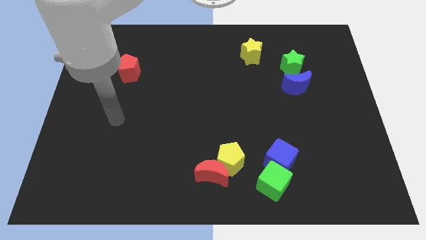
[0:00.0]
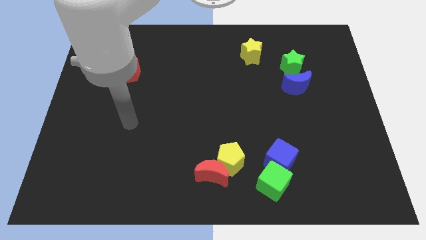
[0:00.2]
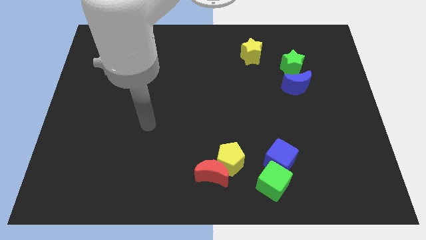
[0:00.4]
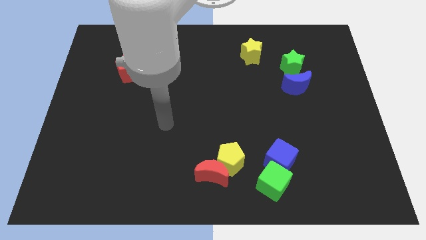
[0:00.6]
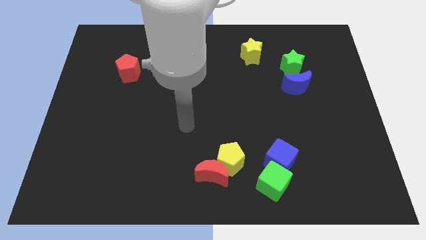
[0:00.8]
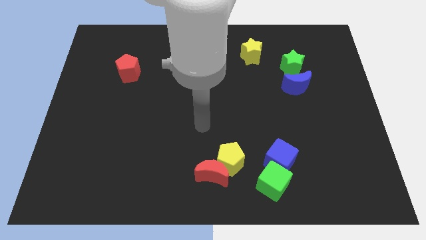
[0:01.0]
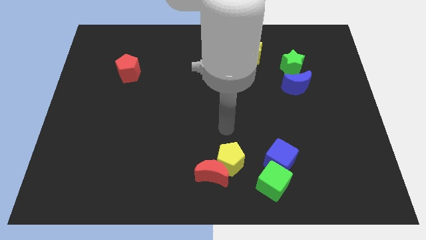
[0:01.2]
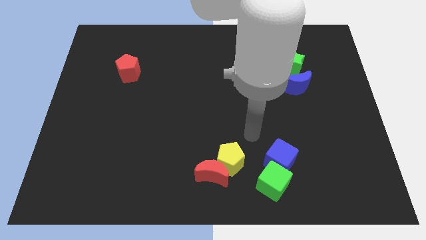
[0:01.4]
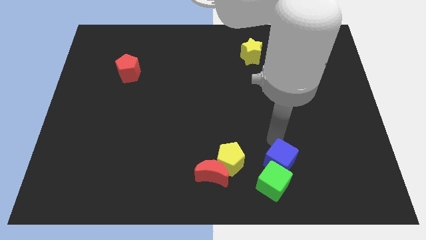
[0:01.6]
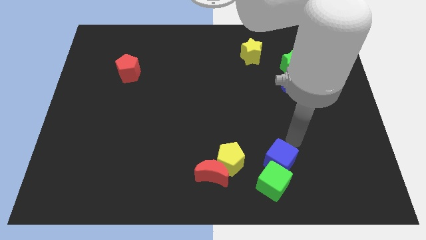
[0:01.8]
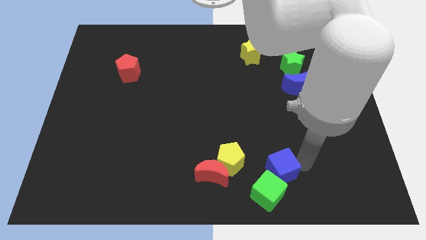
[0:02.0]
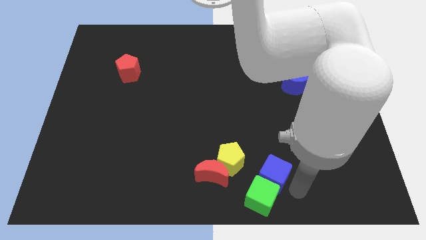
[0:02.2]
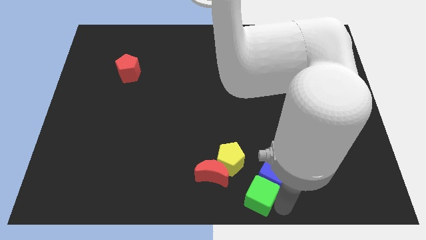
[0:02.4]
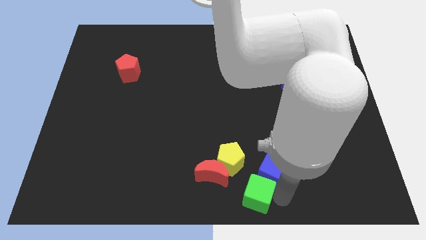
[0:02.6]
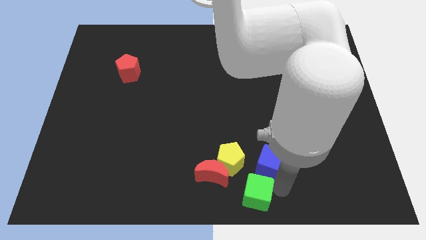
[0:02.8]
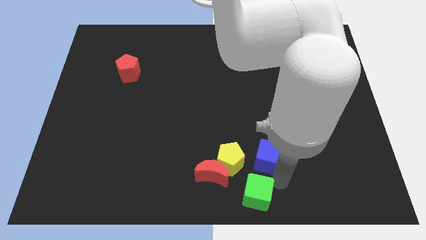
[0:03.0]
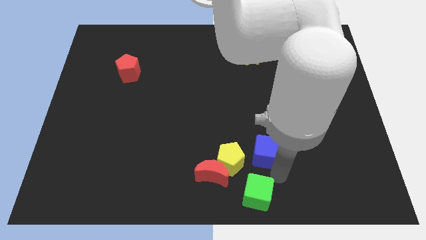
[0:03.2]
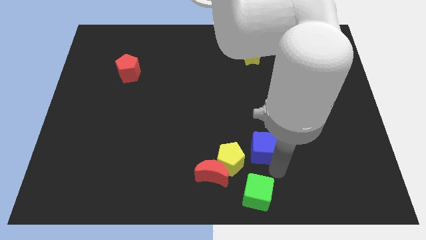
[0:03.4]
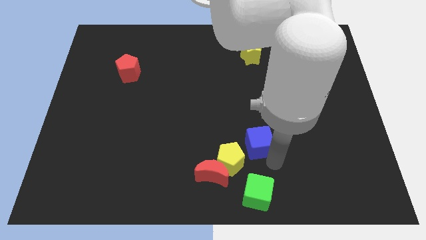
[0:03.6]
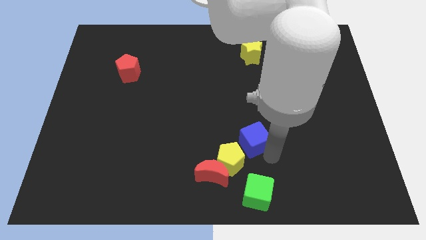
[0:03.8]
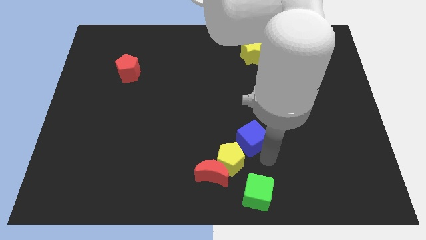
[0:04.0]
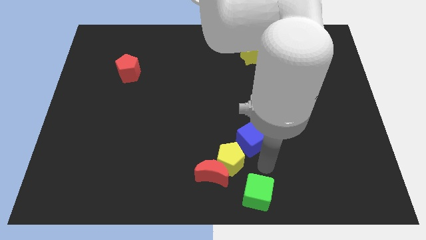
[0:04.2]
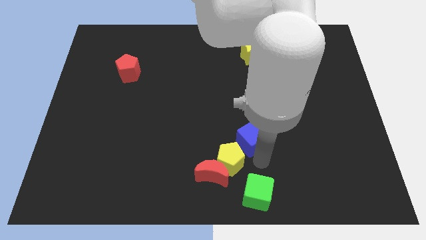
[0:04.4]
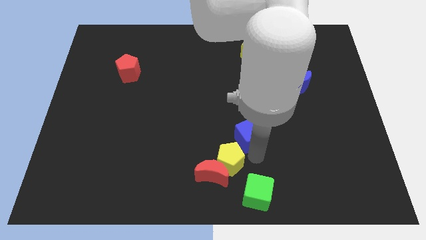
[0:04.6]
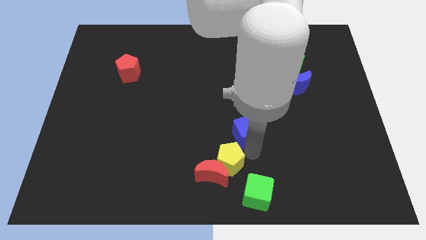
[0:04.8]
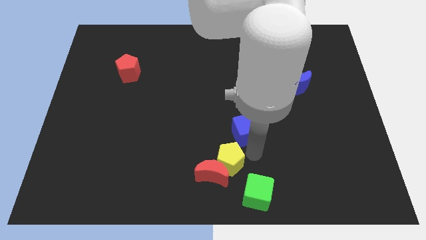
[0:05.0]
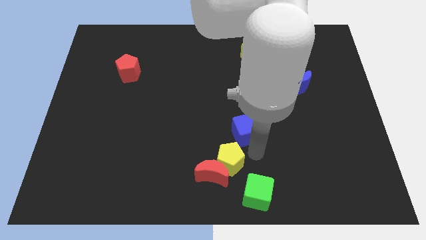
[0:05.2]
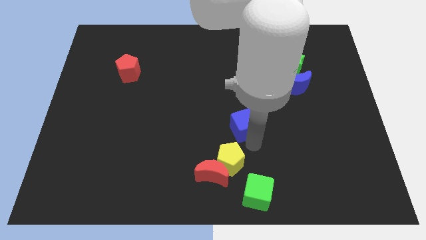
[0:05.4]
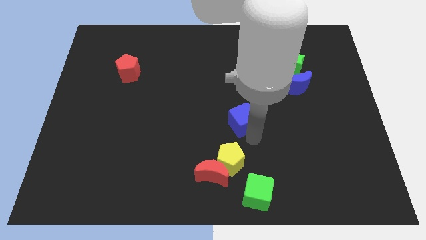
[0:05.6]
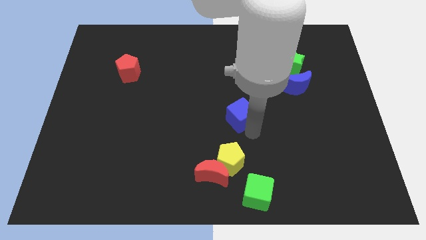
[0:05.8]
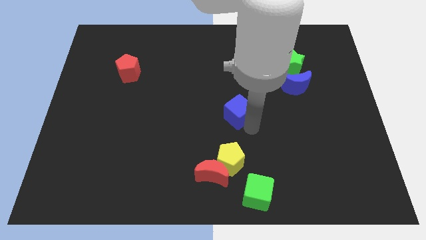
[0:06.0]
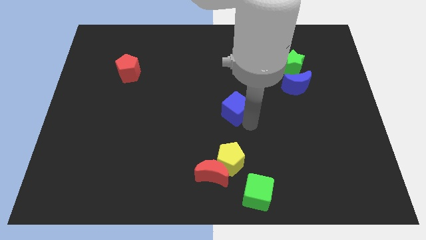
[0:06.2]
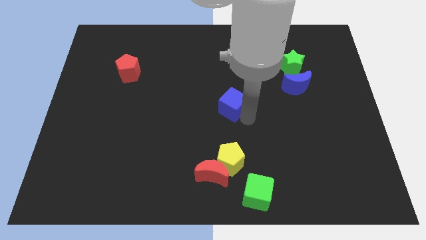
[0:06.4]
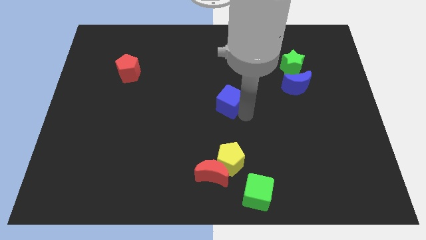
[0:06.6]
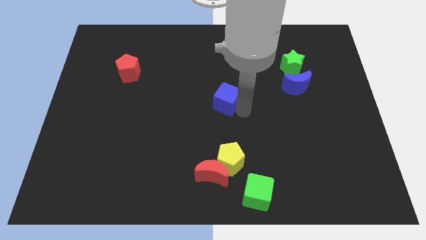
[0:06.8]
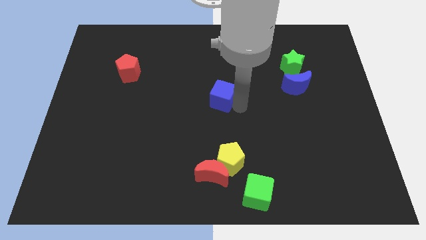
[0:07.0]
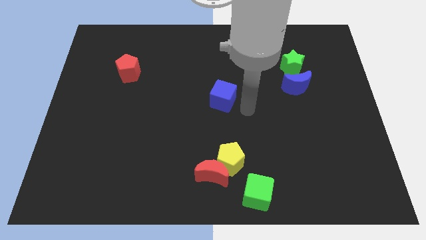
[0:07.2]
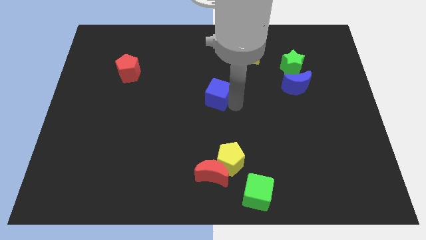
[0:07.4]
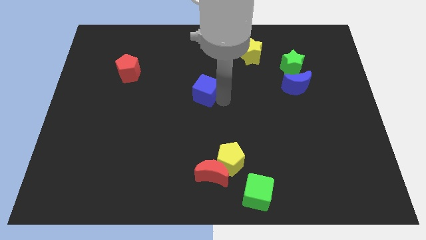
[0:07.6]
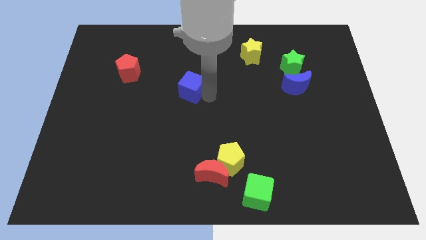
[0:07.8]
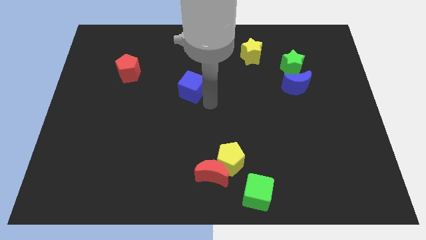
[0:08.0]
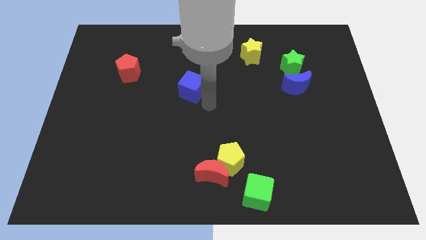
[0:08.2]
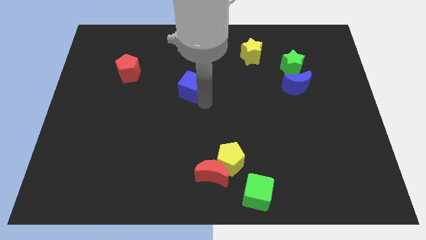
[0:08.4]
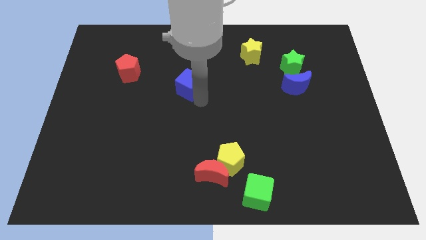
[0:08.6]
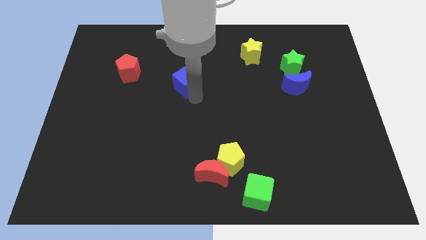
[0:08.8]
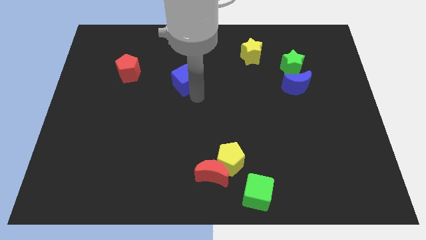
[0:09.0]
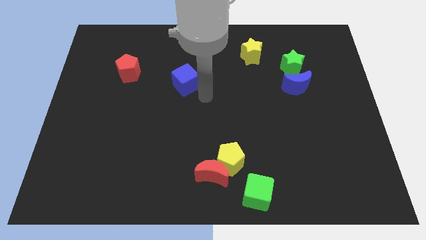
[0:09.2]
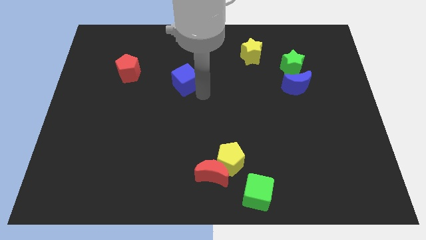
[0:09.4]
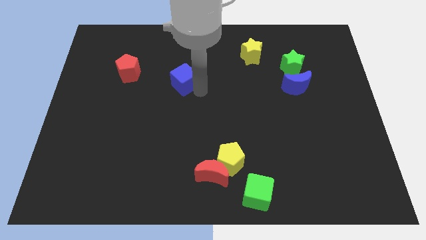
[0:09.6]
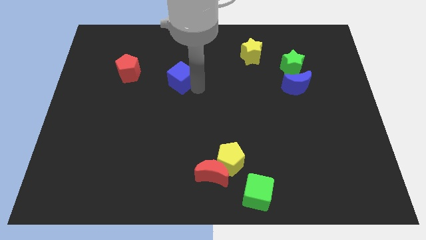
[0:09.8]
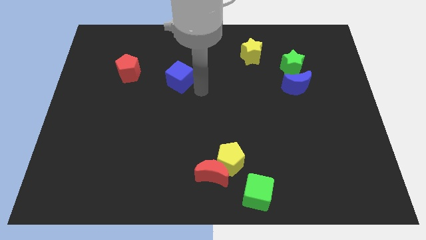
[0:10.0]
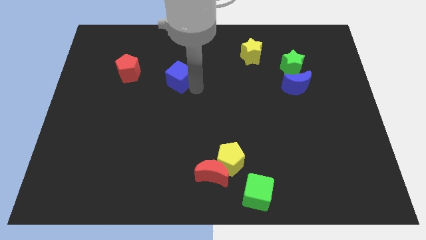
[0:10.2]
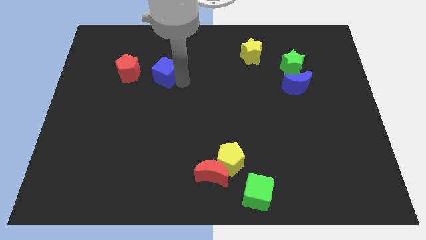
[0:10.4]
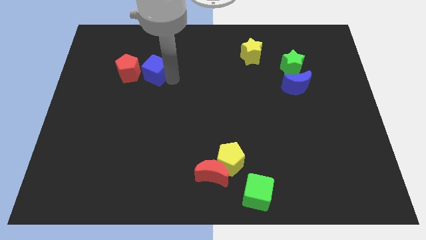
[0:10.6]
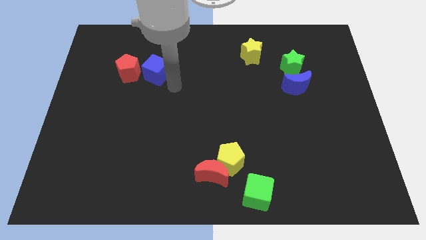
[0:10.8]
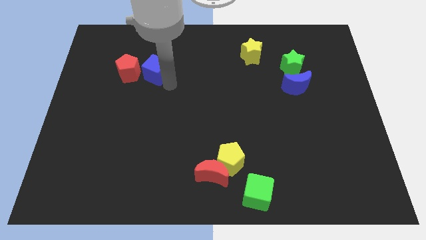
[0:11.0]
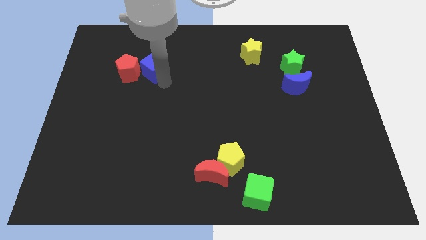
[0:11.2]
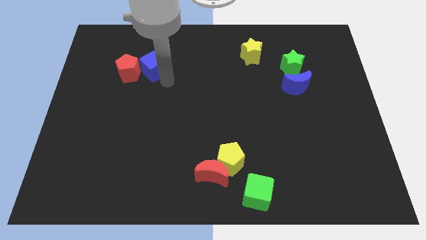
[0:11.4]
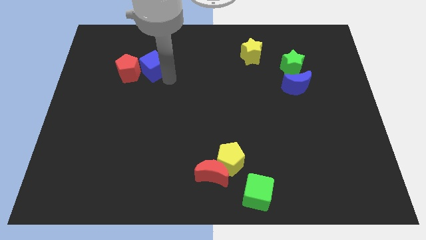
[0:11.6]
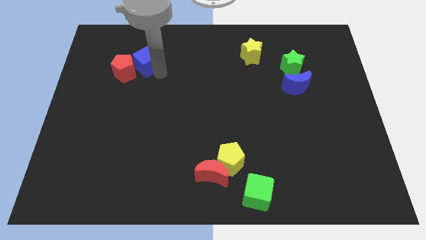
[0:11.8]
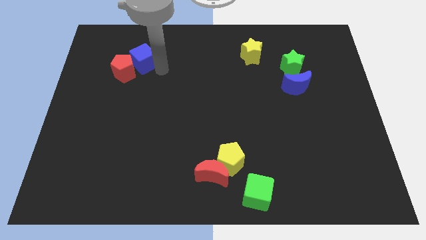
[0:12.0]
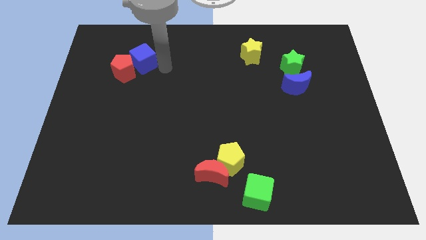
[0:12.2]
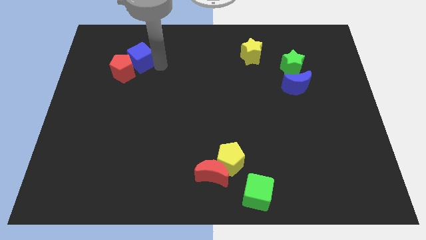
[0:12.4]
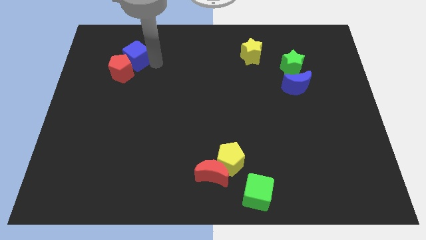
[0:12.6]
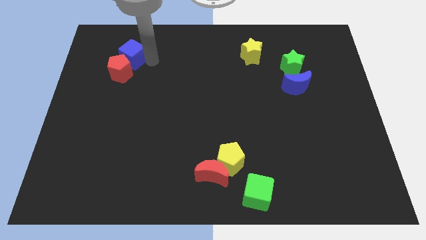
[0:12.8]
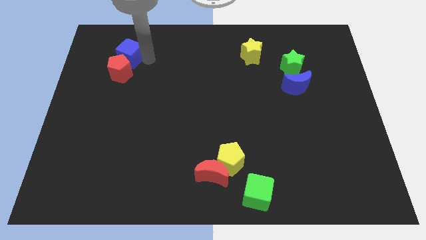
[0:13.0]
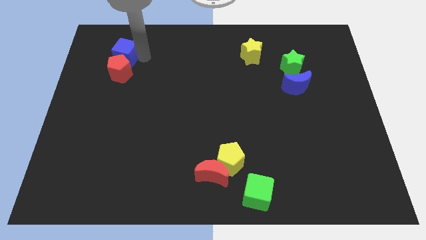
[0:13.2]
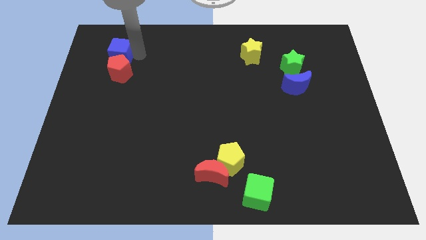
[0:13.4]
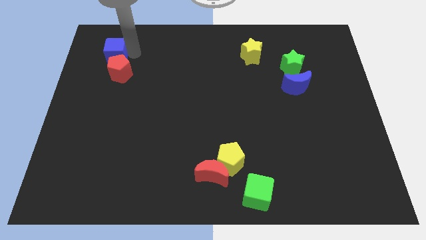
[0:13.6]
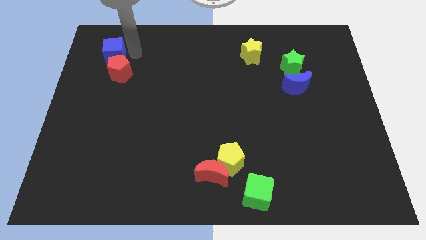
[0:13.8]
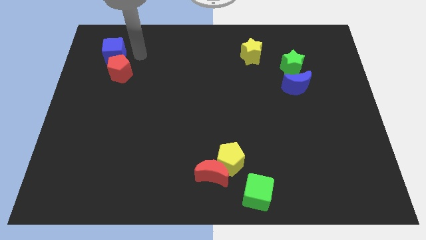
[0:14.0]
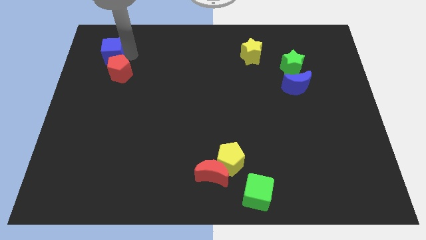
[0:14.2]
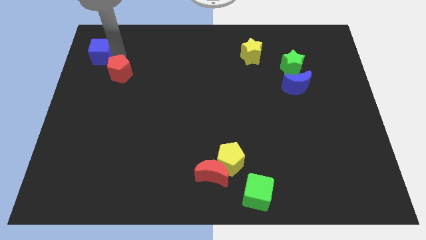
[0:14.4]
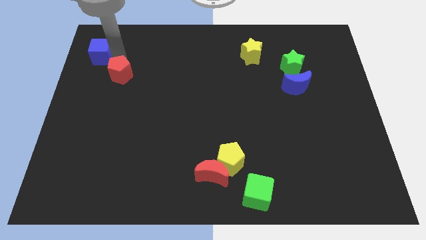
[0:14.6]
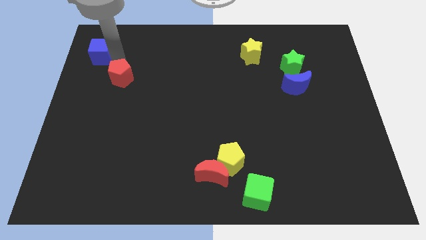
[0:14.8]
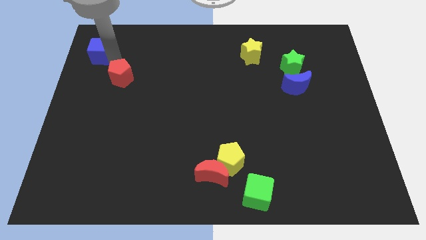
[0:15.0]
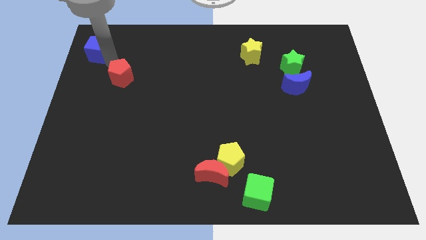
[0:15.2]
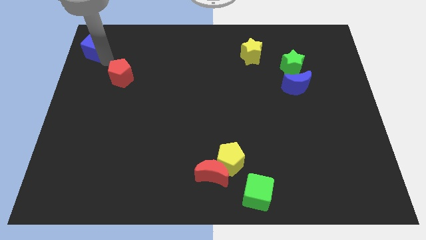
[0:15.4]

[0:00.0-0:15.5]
push the blue cube to the upper left corner
